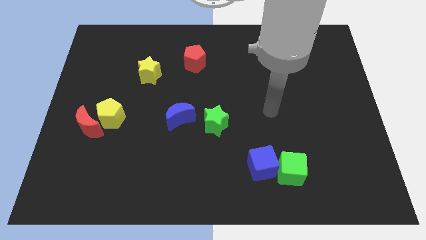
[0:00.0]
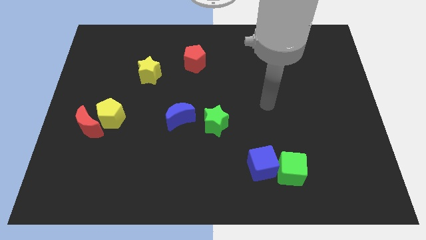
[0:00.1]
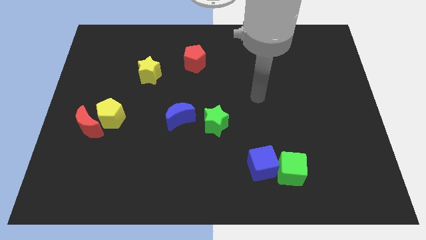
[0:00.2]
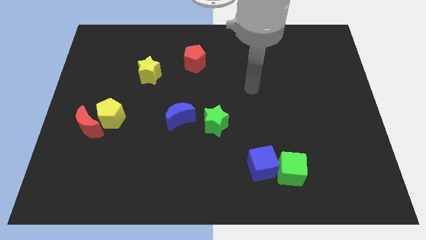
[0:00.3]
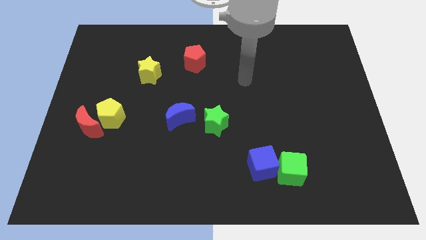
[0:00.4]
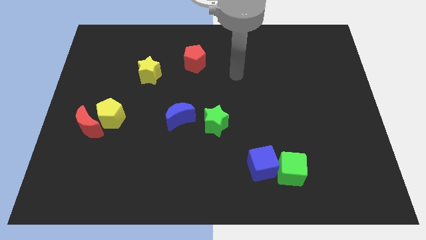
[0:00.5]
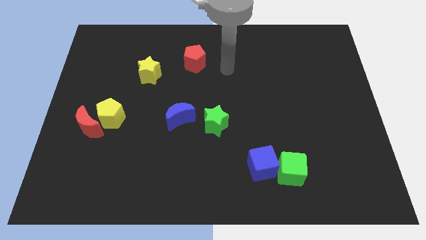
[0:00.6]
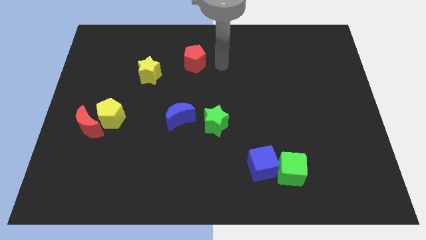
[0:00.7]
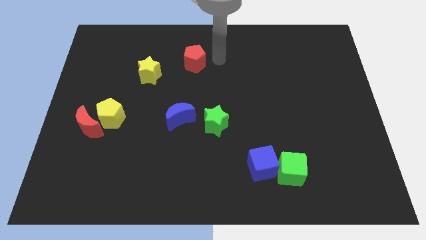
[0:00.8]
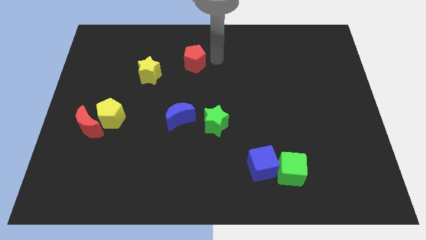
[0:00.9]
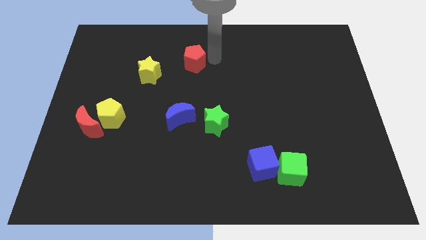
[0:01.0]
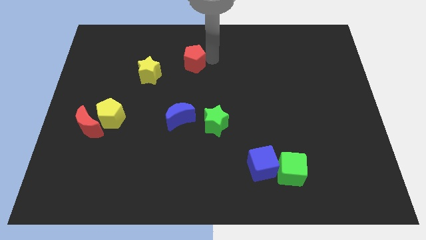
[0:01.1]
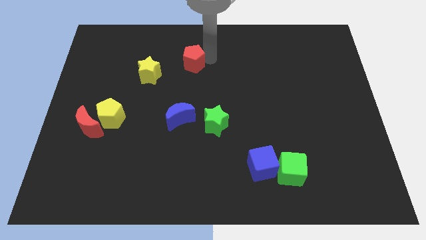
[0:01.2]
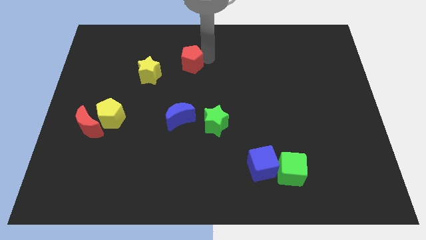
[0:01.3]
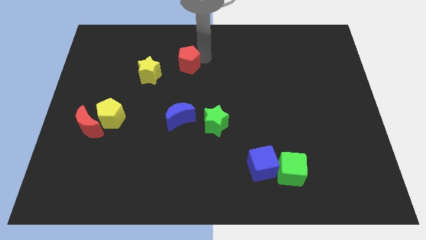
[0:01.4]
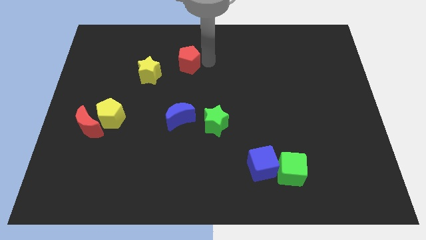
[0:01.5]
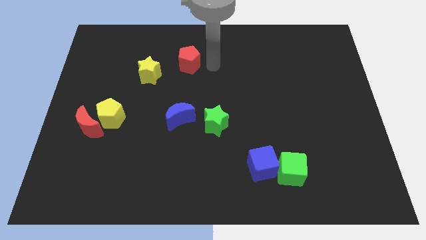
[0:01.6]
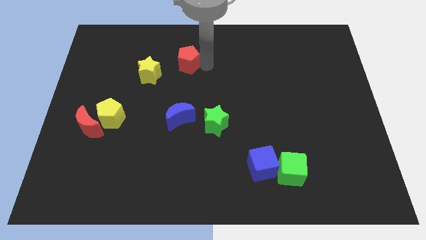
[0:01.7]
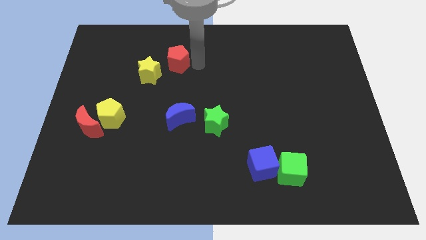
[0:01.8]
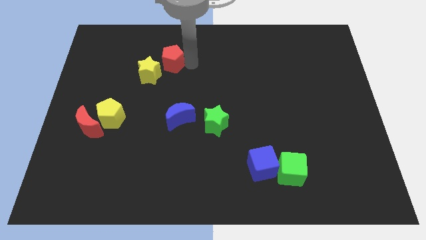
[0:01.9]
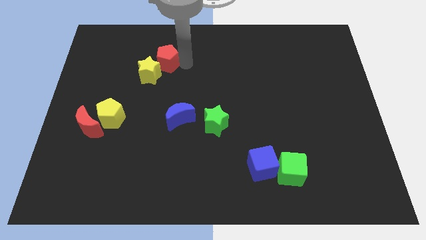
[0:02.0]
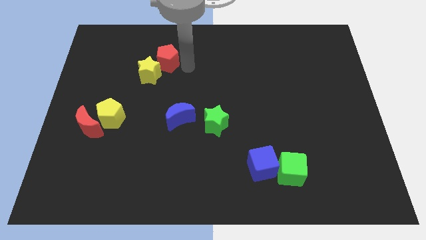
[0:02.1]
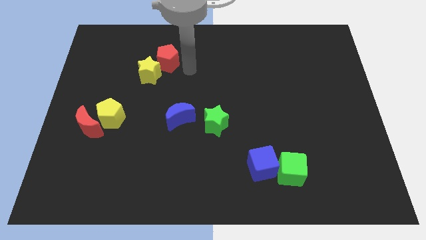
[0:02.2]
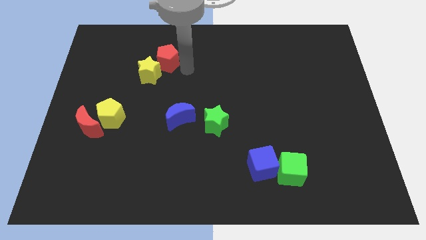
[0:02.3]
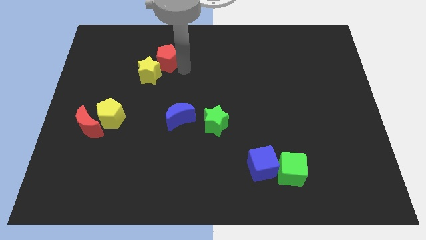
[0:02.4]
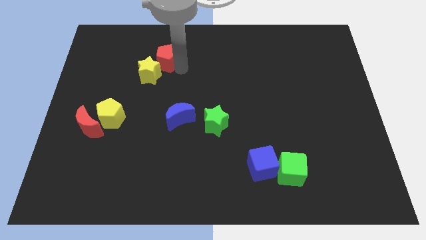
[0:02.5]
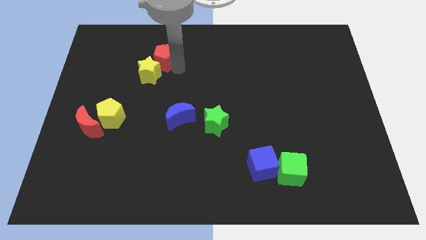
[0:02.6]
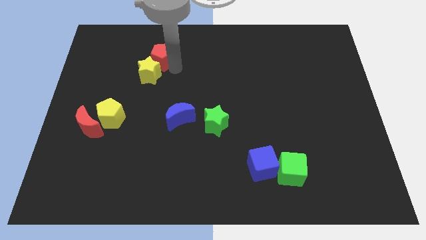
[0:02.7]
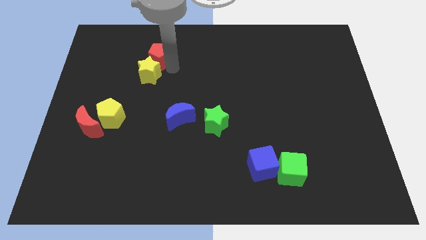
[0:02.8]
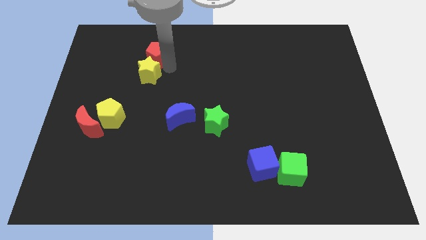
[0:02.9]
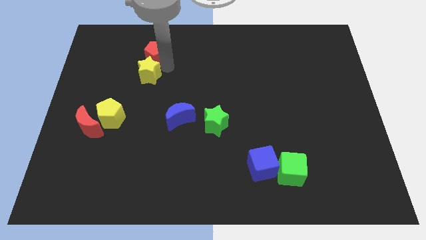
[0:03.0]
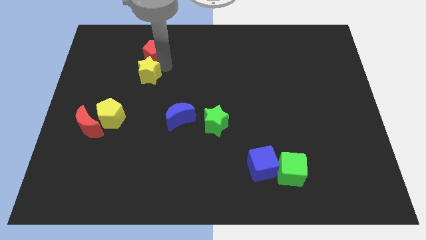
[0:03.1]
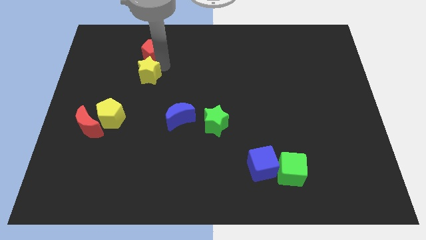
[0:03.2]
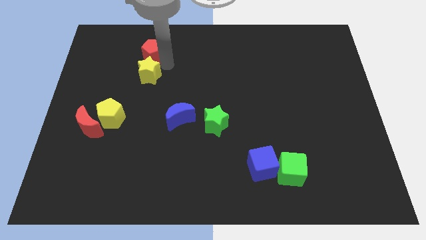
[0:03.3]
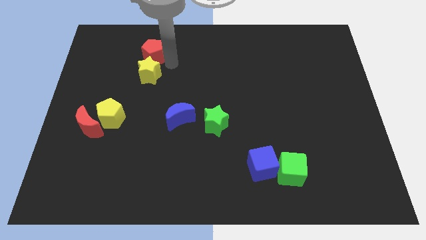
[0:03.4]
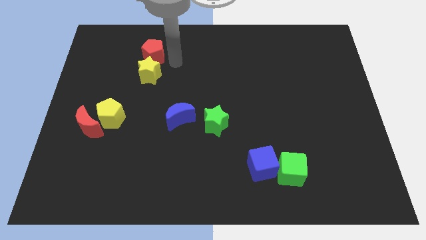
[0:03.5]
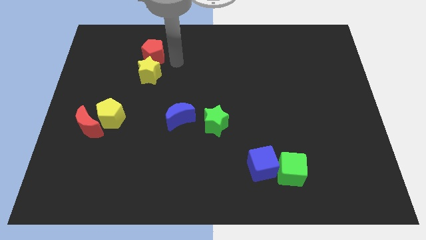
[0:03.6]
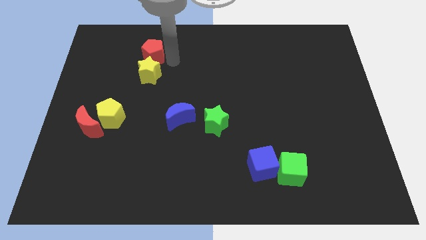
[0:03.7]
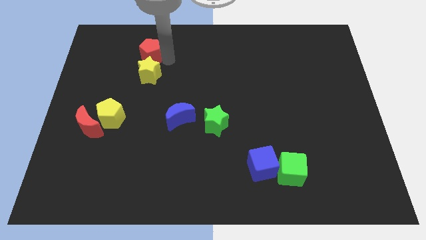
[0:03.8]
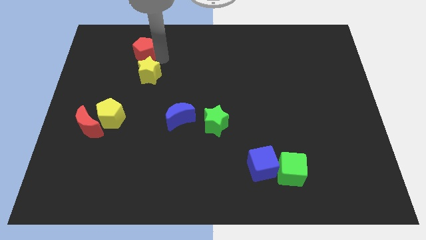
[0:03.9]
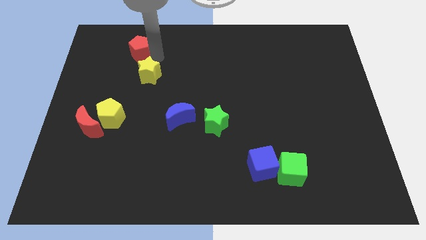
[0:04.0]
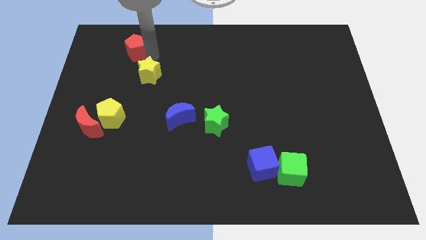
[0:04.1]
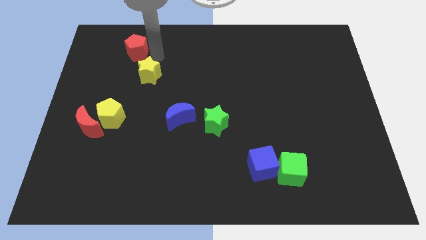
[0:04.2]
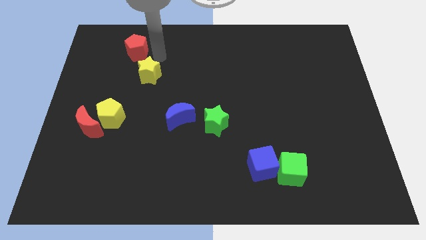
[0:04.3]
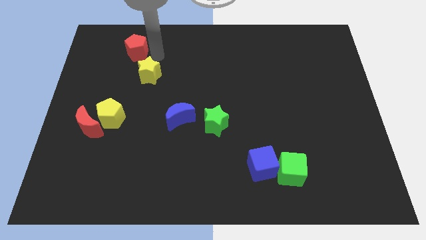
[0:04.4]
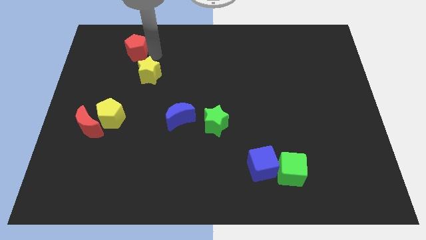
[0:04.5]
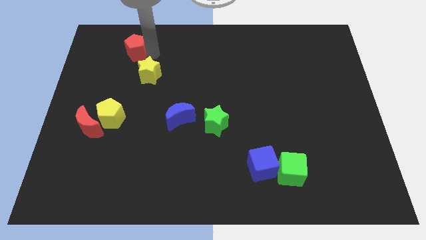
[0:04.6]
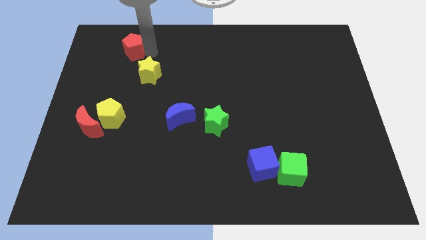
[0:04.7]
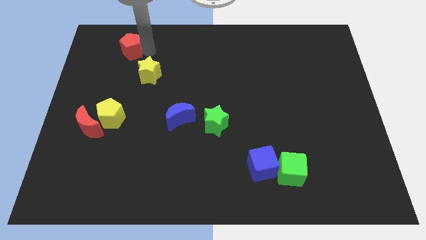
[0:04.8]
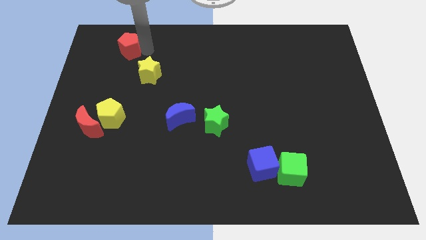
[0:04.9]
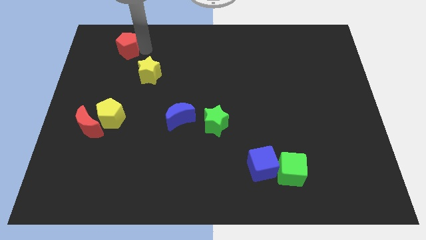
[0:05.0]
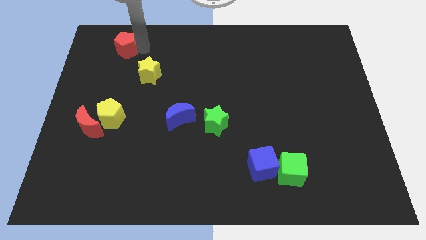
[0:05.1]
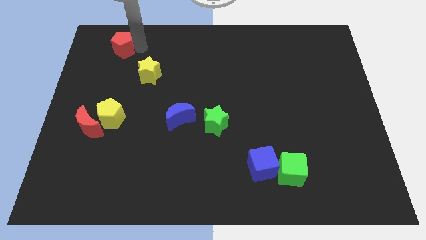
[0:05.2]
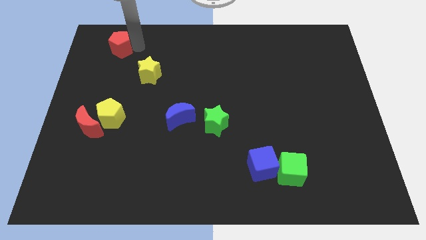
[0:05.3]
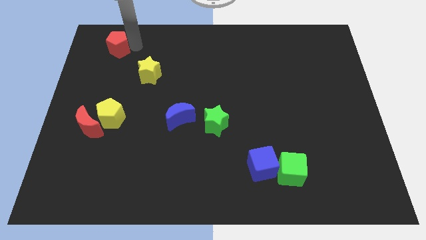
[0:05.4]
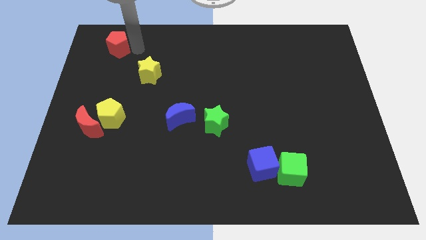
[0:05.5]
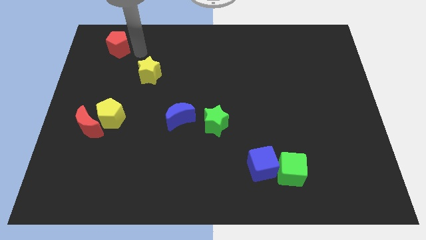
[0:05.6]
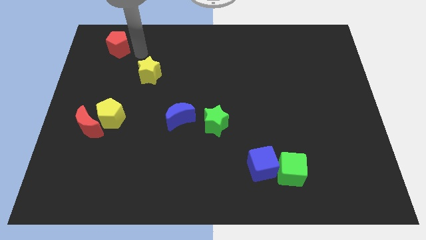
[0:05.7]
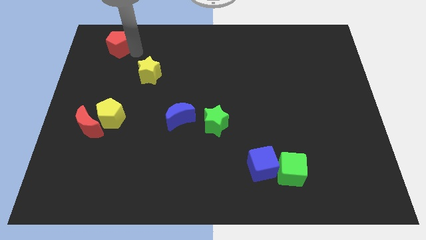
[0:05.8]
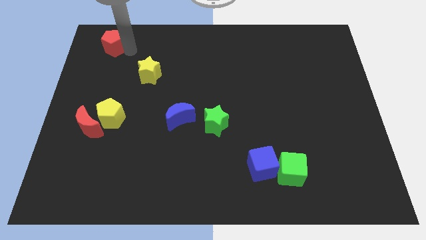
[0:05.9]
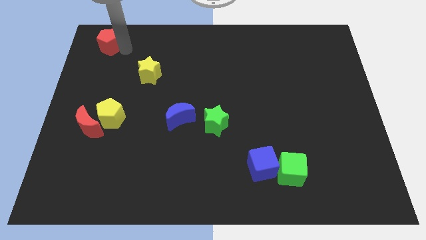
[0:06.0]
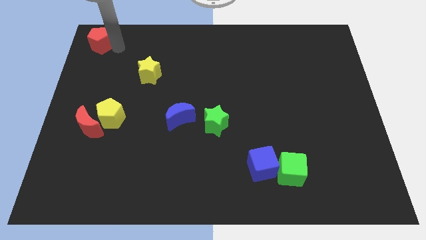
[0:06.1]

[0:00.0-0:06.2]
push the red pentagon to the upper left corner
